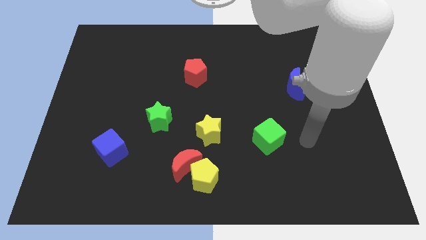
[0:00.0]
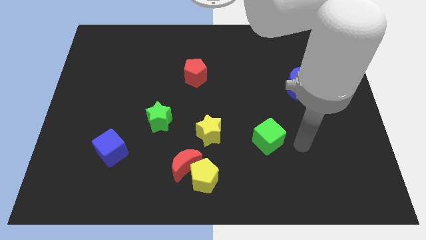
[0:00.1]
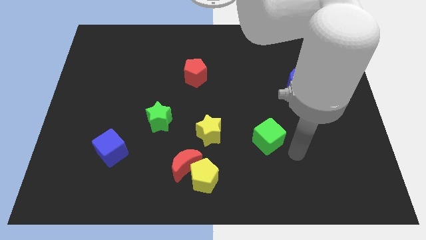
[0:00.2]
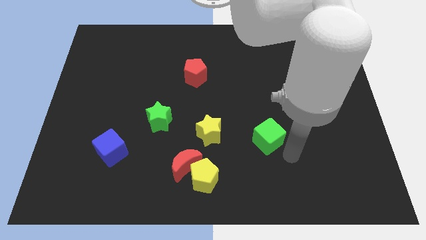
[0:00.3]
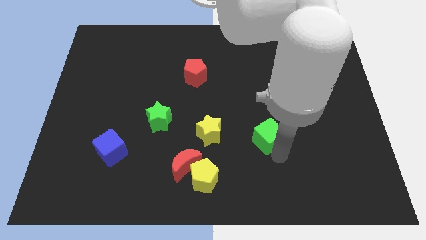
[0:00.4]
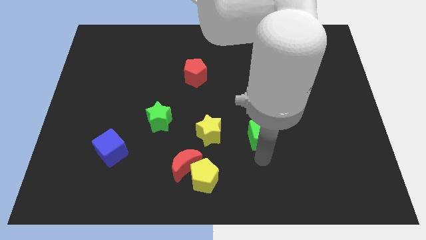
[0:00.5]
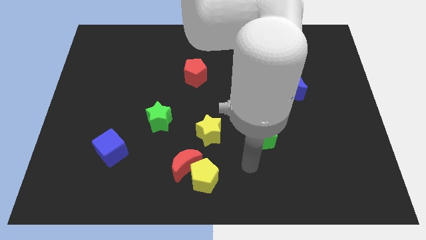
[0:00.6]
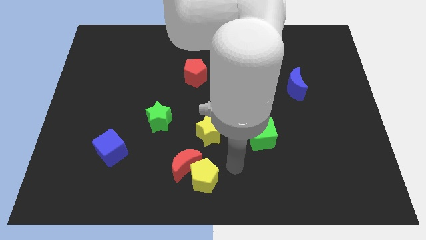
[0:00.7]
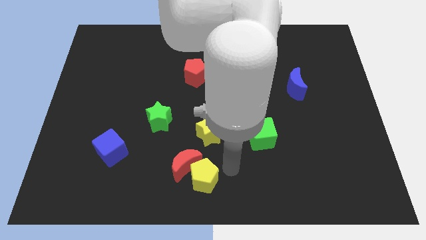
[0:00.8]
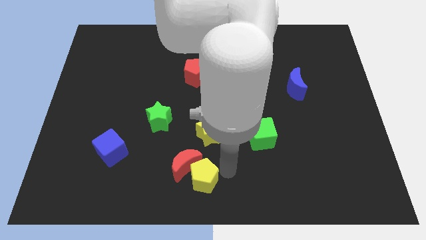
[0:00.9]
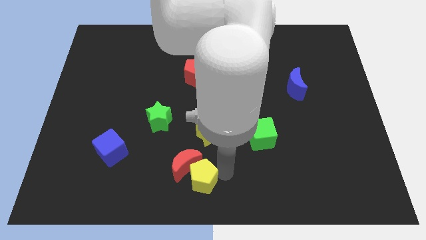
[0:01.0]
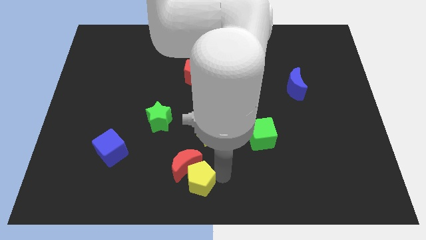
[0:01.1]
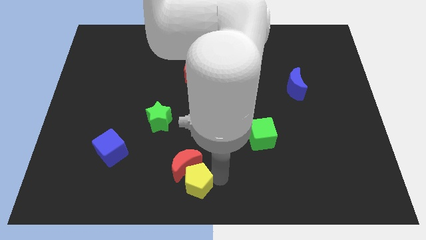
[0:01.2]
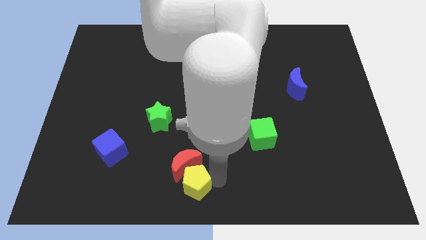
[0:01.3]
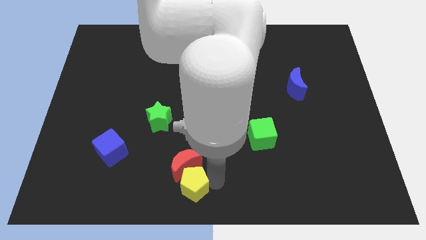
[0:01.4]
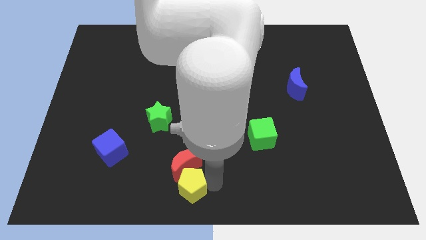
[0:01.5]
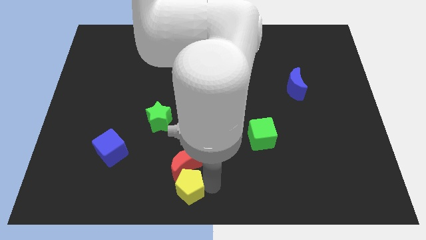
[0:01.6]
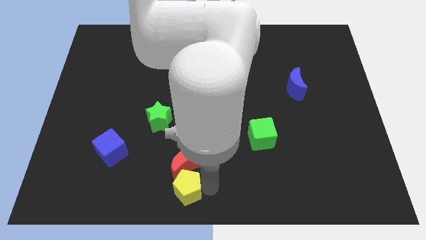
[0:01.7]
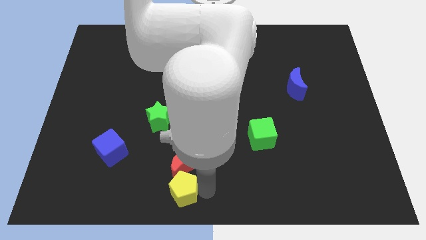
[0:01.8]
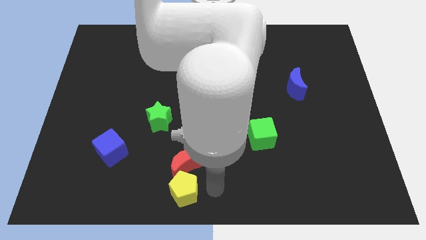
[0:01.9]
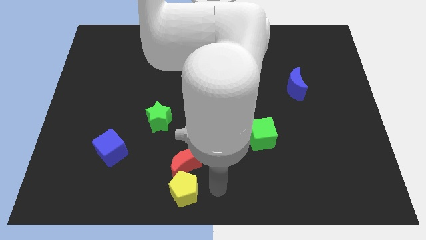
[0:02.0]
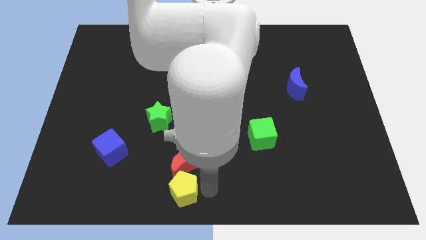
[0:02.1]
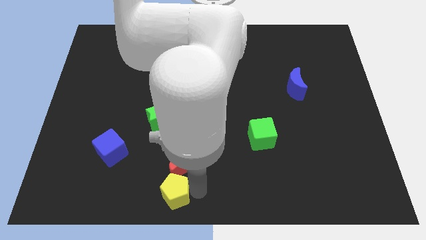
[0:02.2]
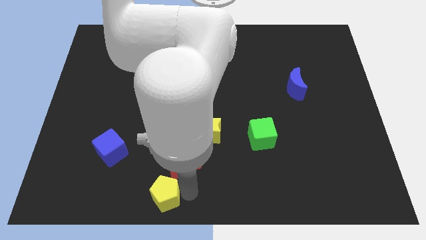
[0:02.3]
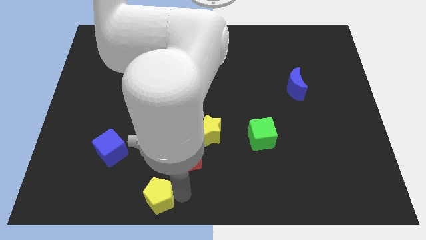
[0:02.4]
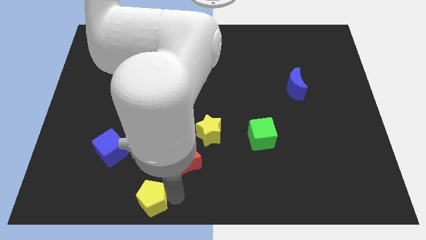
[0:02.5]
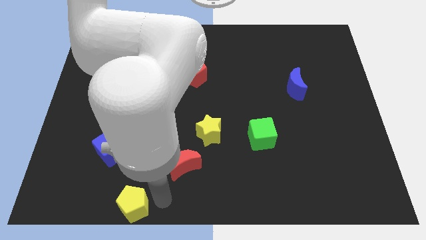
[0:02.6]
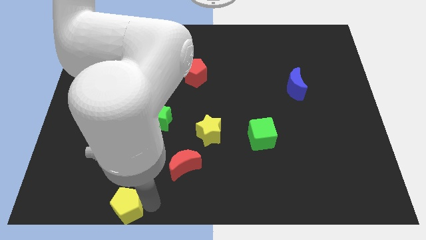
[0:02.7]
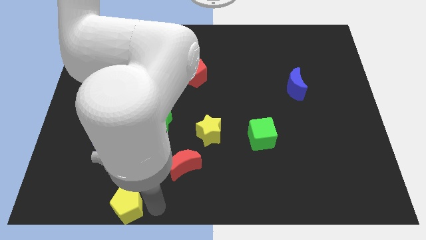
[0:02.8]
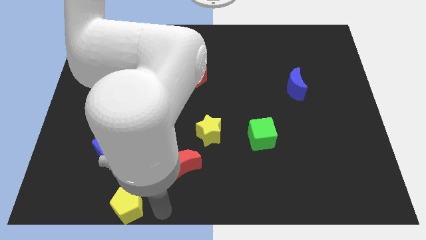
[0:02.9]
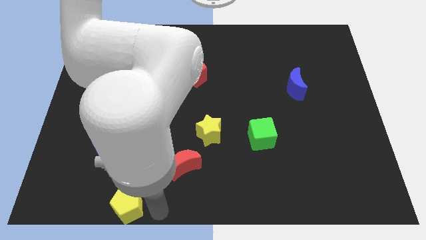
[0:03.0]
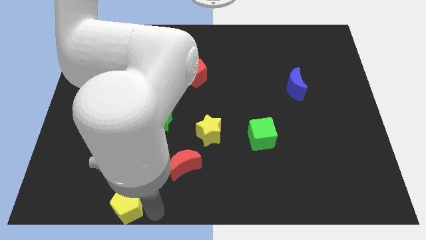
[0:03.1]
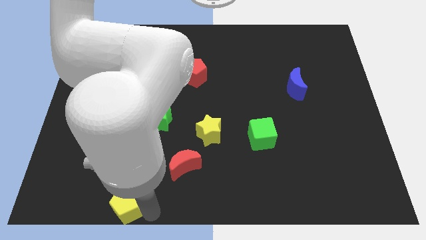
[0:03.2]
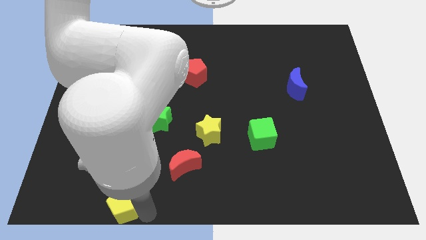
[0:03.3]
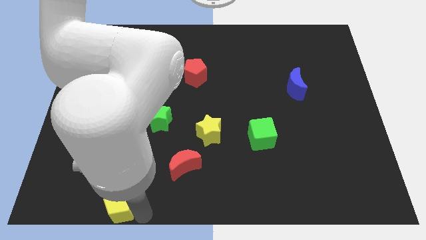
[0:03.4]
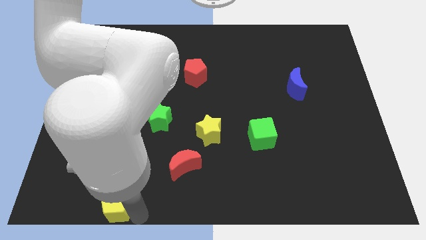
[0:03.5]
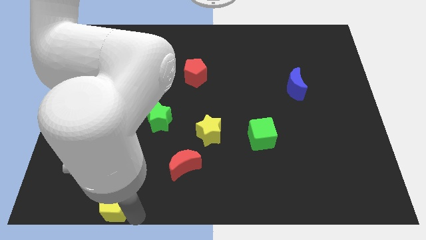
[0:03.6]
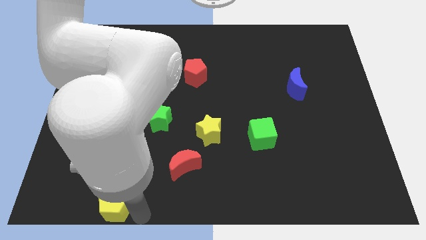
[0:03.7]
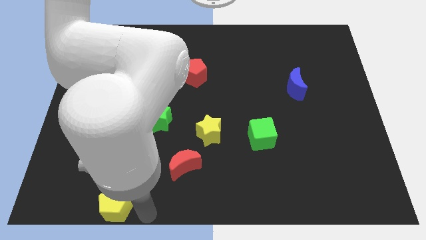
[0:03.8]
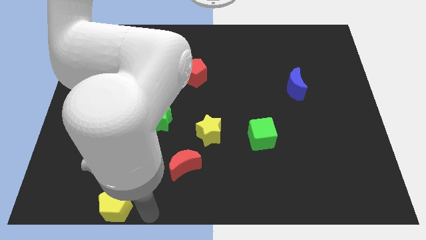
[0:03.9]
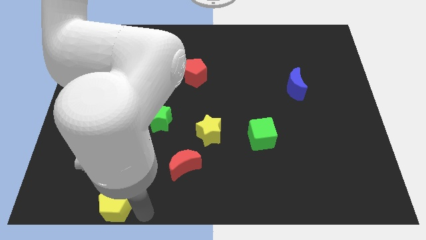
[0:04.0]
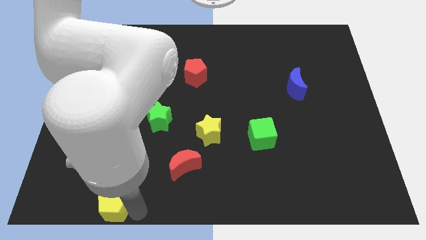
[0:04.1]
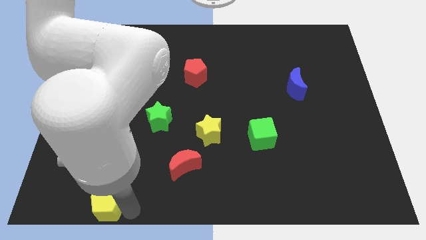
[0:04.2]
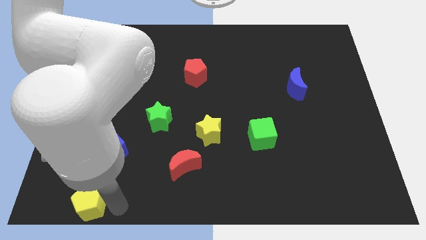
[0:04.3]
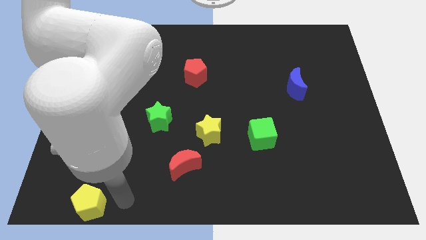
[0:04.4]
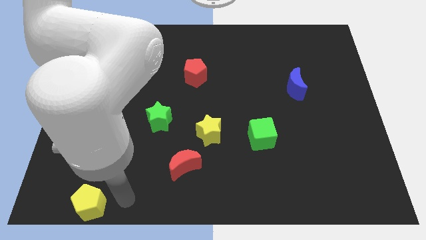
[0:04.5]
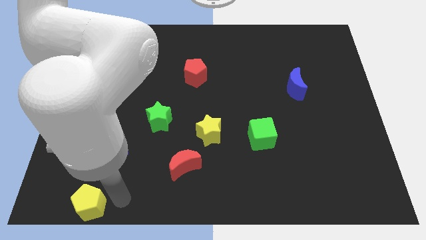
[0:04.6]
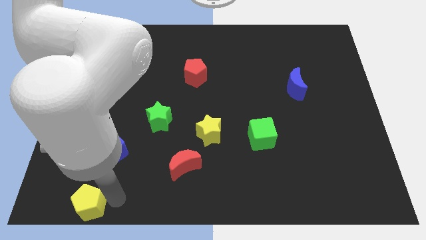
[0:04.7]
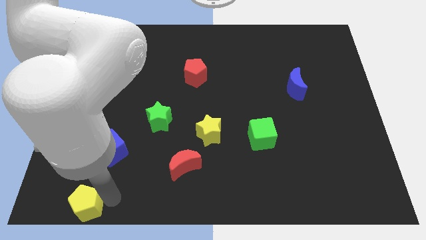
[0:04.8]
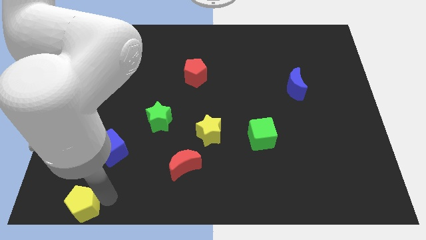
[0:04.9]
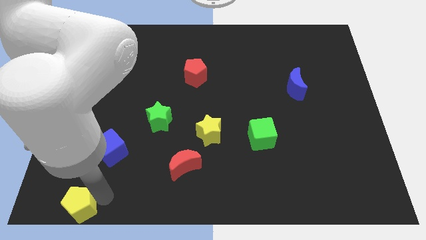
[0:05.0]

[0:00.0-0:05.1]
push the yellow pentagon to the bottom left of the board

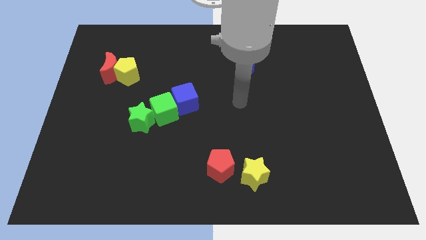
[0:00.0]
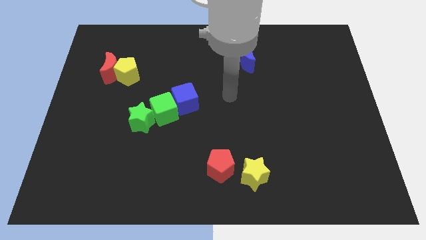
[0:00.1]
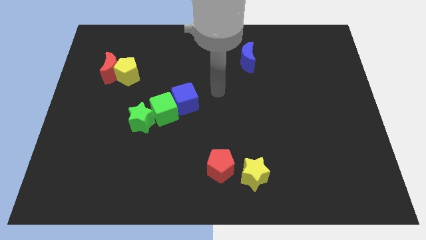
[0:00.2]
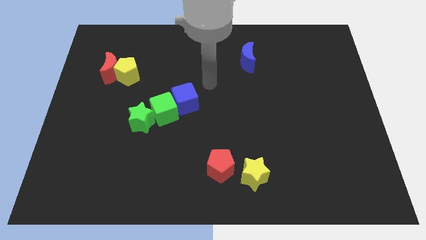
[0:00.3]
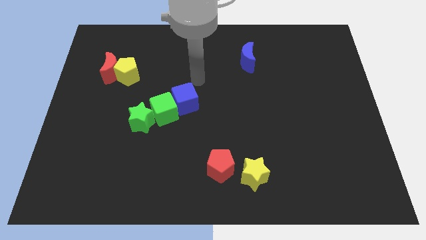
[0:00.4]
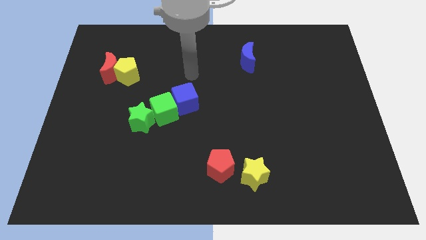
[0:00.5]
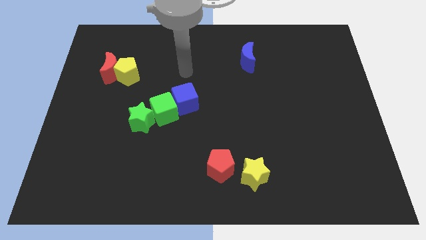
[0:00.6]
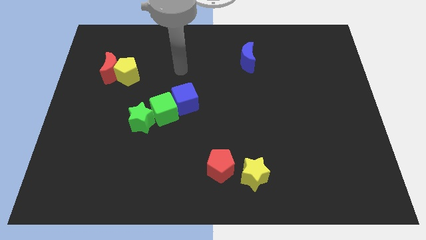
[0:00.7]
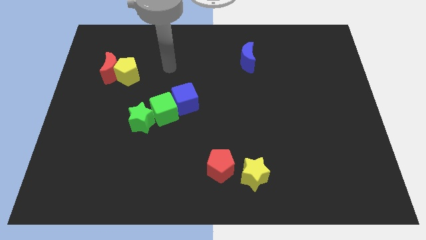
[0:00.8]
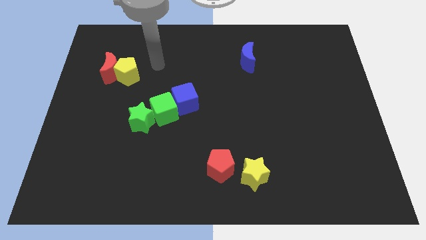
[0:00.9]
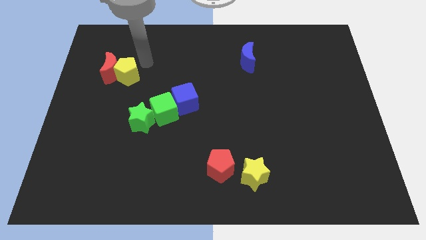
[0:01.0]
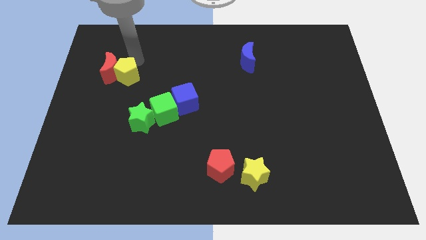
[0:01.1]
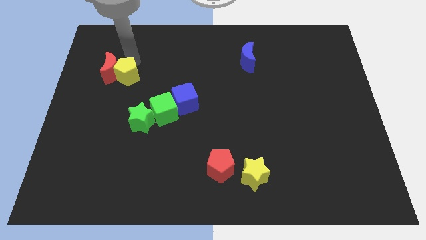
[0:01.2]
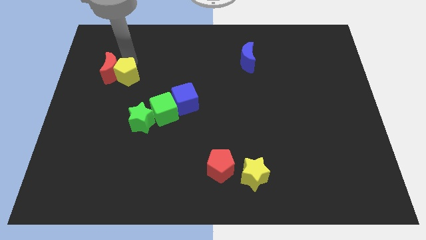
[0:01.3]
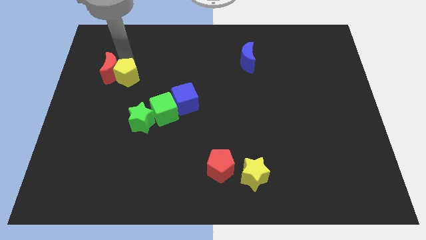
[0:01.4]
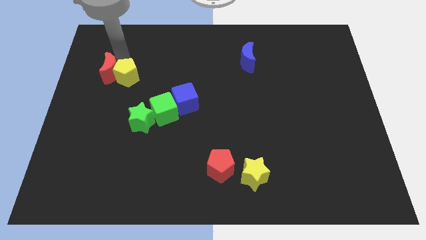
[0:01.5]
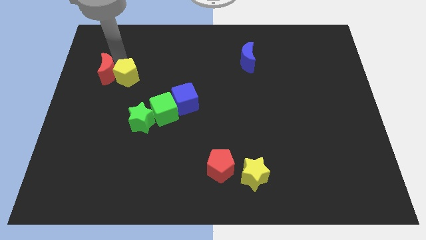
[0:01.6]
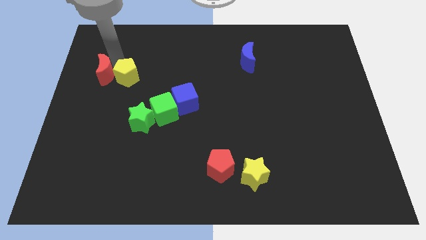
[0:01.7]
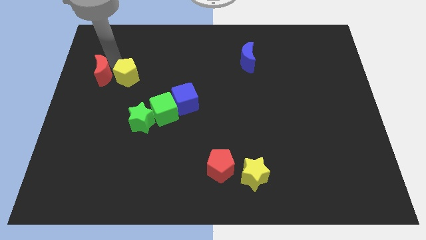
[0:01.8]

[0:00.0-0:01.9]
put the red moon to the left side

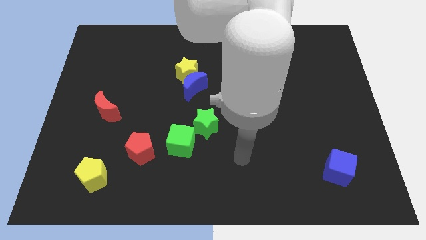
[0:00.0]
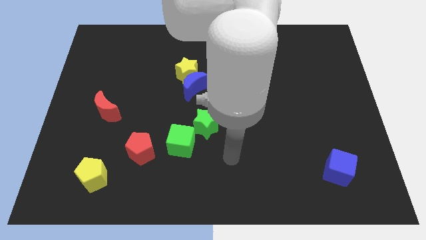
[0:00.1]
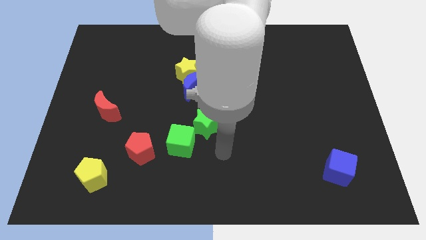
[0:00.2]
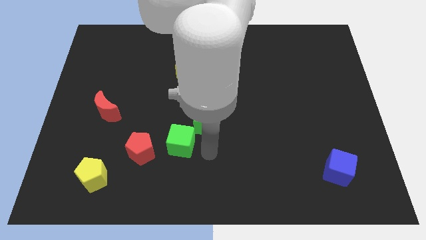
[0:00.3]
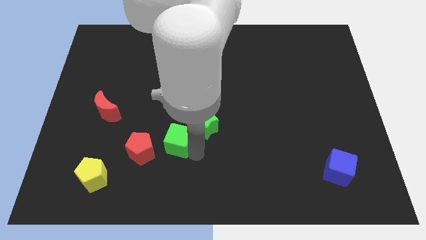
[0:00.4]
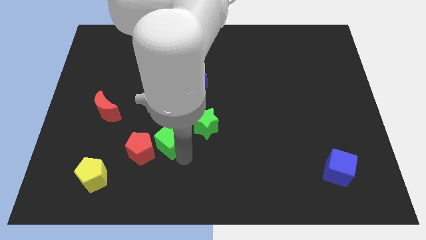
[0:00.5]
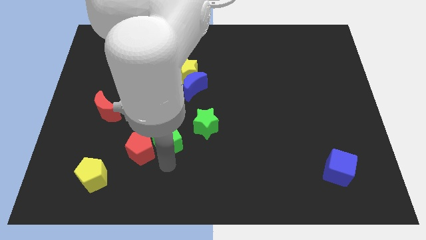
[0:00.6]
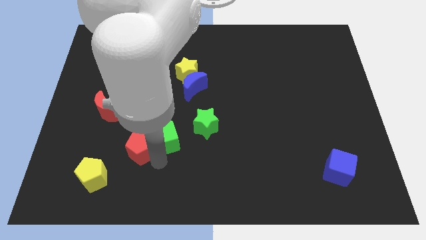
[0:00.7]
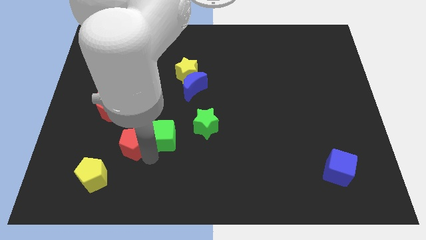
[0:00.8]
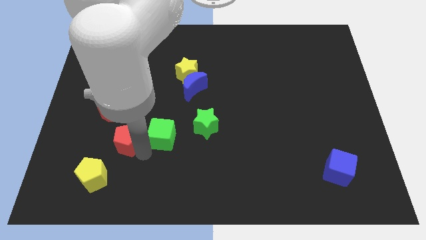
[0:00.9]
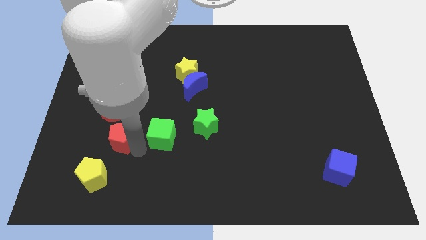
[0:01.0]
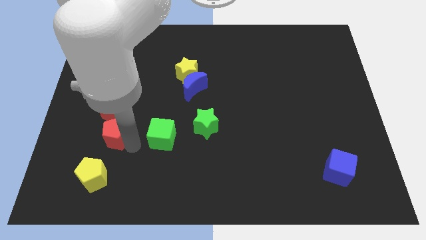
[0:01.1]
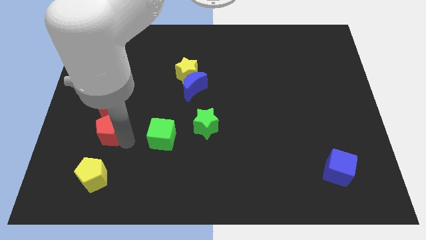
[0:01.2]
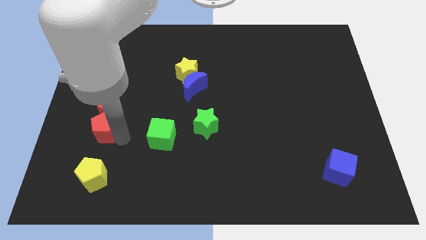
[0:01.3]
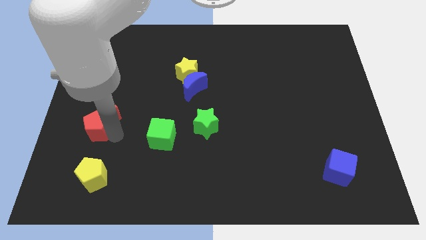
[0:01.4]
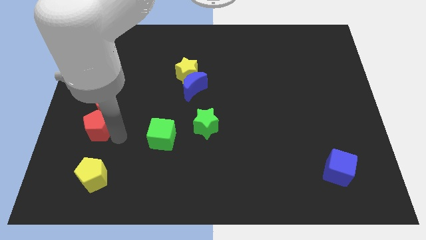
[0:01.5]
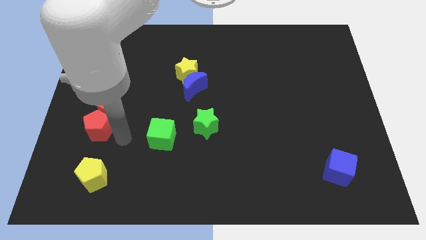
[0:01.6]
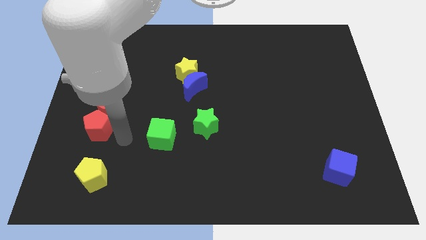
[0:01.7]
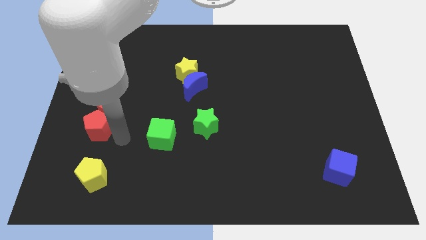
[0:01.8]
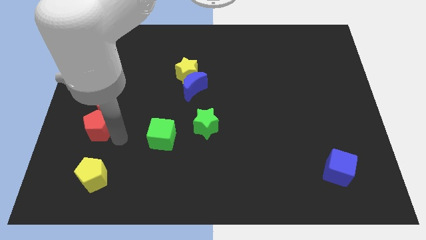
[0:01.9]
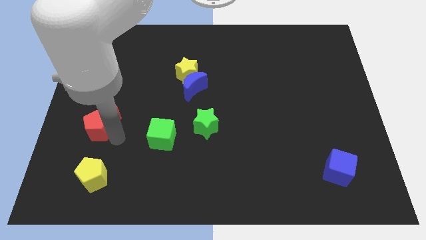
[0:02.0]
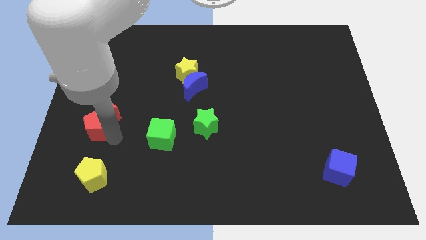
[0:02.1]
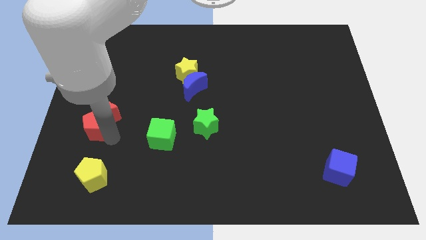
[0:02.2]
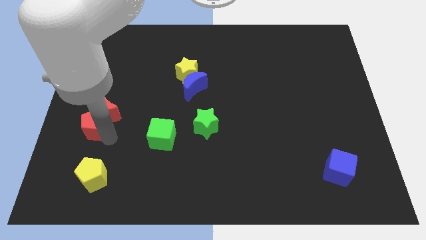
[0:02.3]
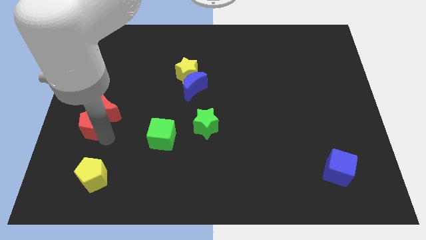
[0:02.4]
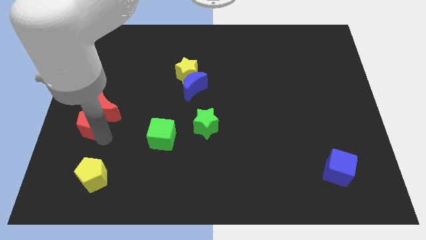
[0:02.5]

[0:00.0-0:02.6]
move the red pentagon to the left side of the board
